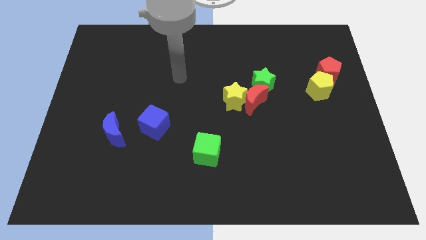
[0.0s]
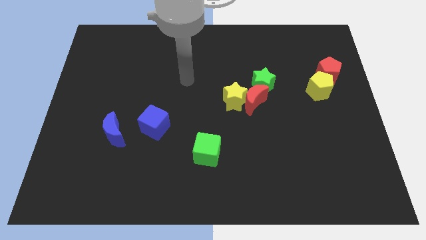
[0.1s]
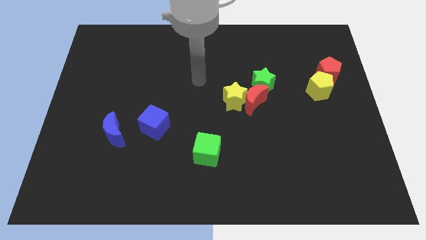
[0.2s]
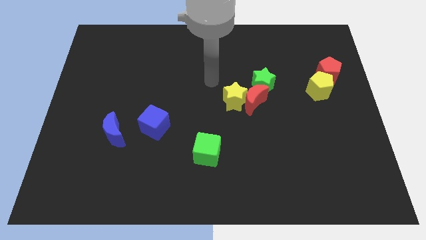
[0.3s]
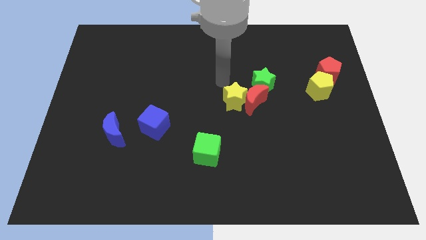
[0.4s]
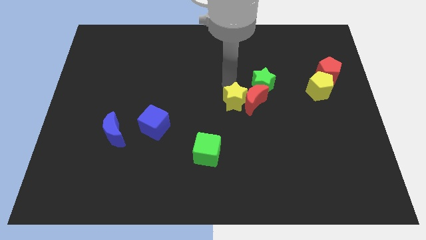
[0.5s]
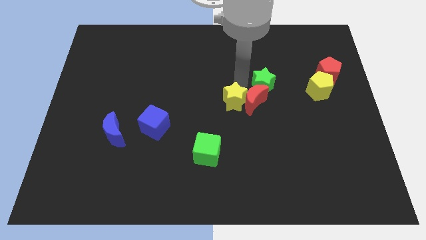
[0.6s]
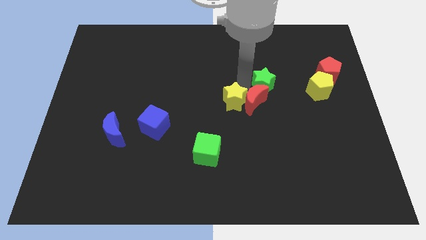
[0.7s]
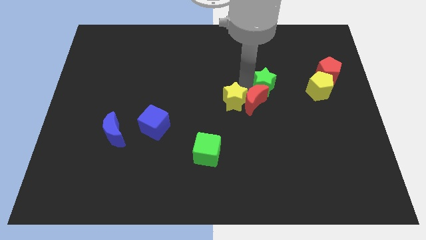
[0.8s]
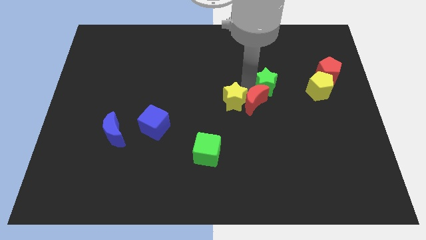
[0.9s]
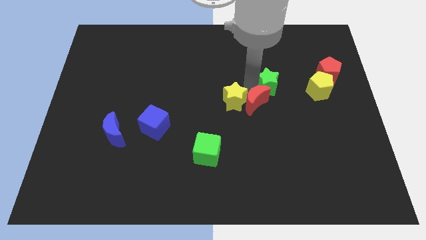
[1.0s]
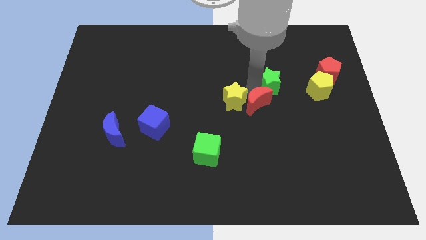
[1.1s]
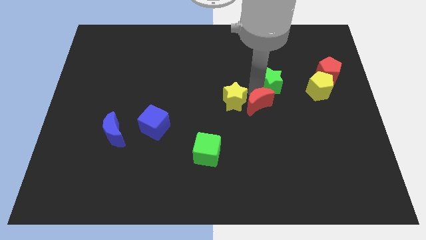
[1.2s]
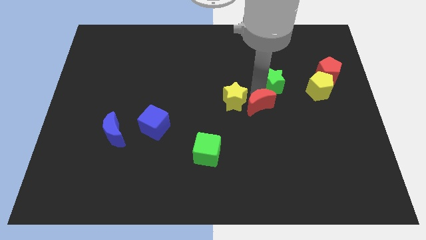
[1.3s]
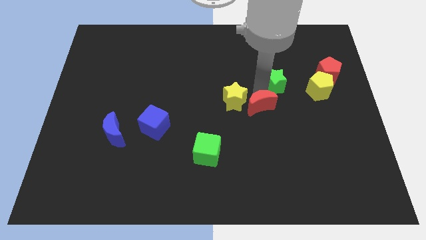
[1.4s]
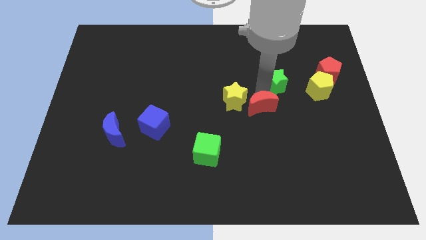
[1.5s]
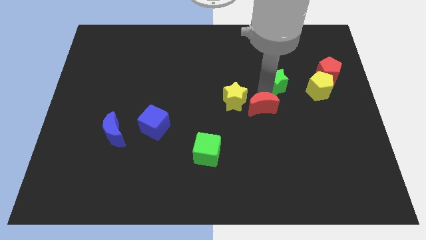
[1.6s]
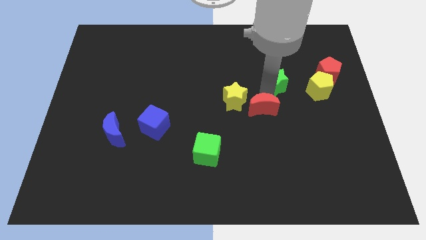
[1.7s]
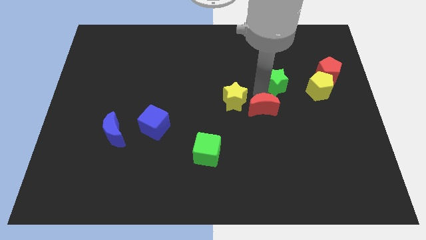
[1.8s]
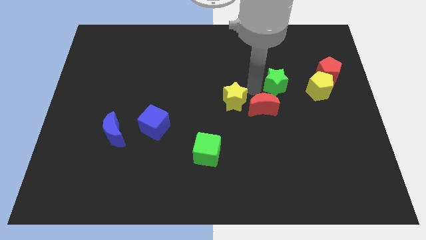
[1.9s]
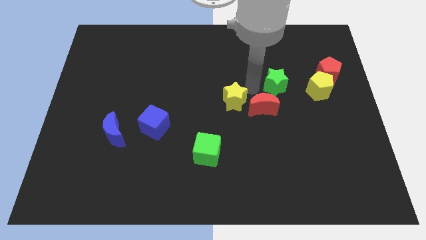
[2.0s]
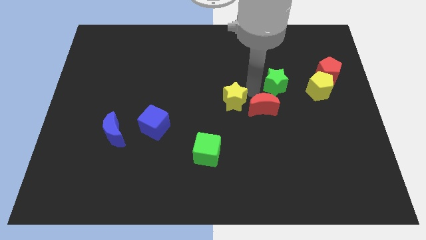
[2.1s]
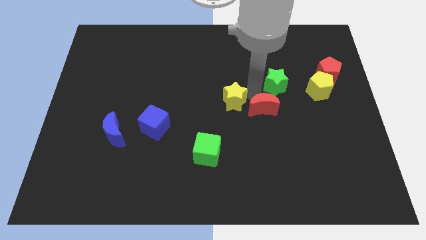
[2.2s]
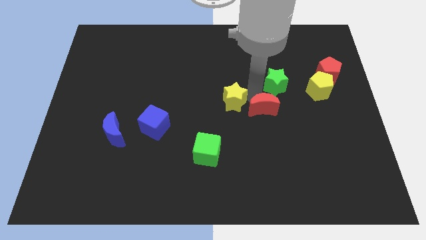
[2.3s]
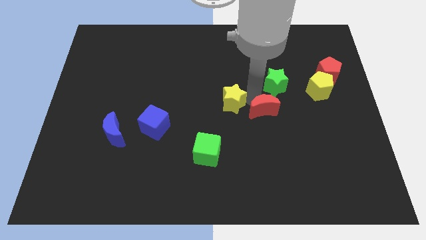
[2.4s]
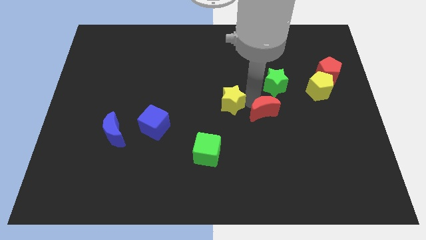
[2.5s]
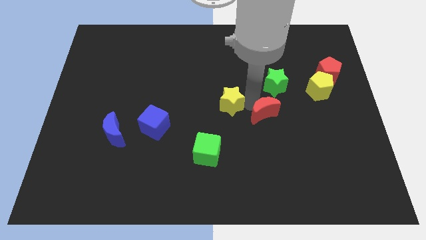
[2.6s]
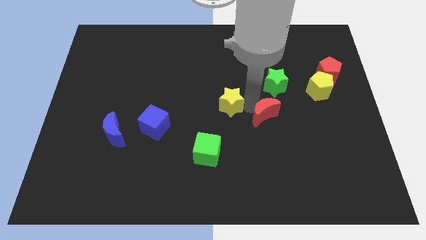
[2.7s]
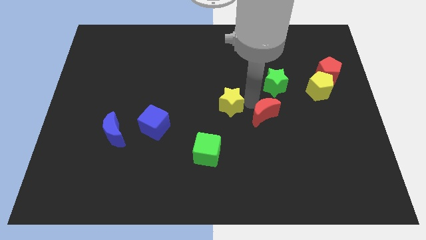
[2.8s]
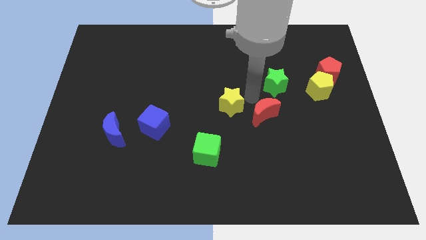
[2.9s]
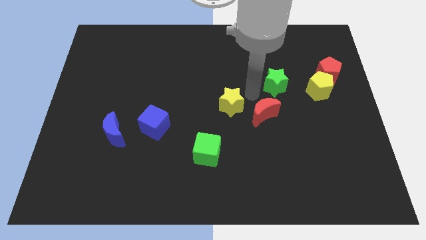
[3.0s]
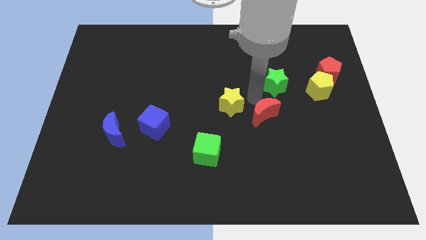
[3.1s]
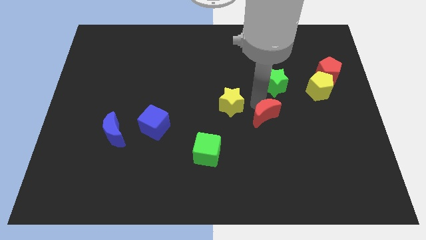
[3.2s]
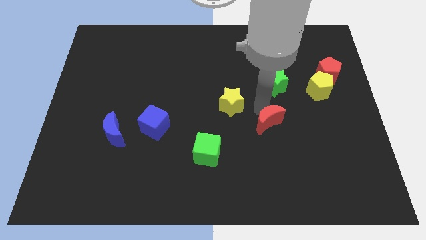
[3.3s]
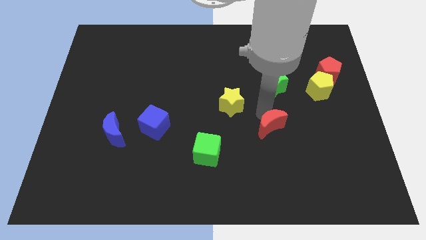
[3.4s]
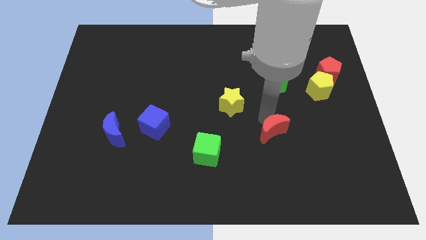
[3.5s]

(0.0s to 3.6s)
move the red moon away from the yellow star and green star

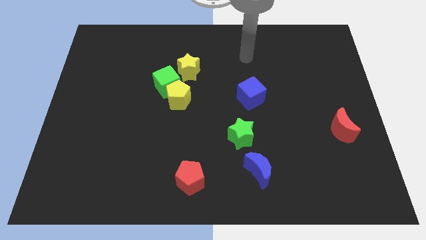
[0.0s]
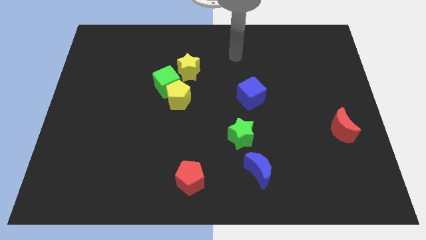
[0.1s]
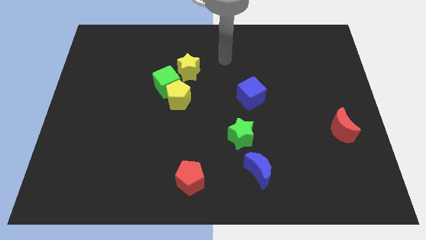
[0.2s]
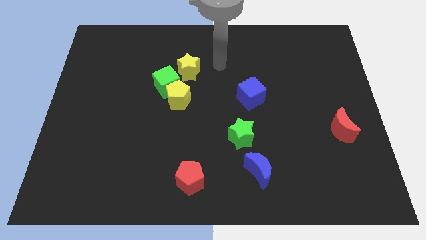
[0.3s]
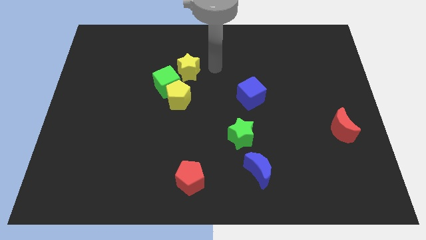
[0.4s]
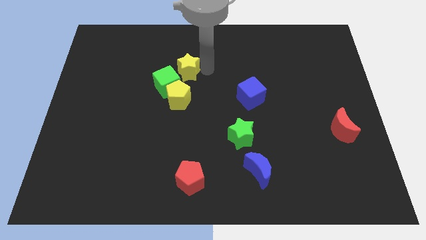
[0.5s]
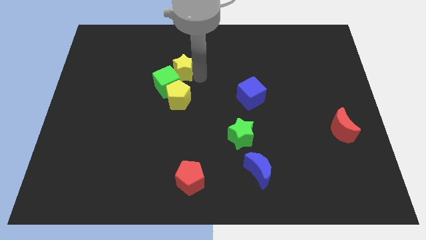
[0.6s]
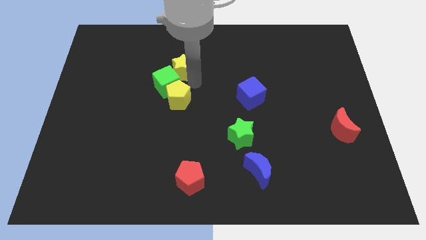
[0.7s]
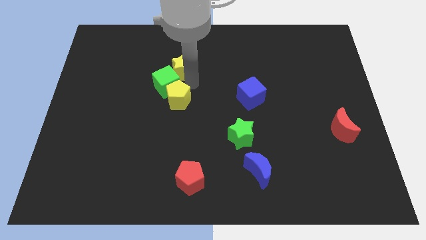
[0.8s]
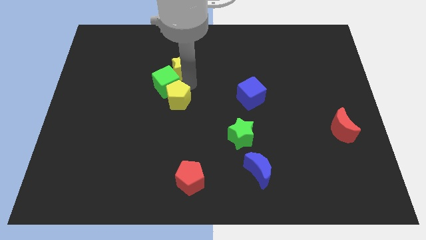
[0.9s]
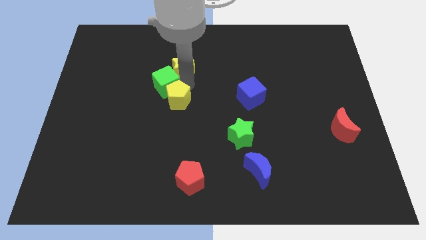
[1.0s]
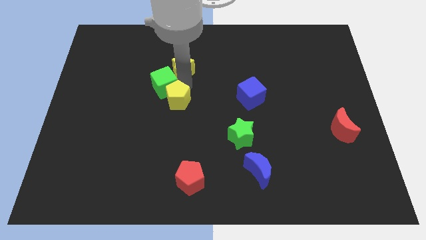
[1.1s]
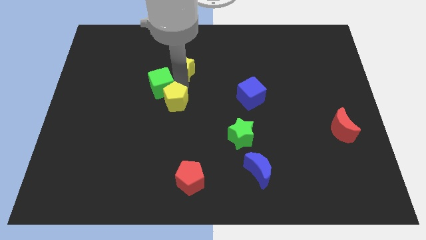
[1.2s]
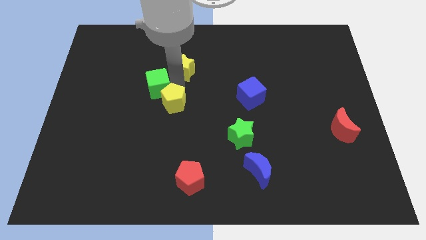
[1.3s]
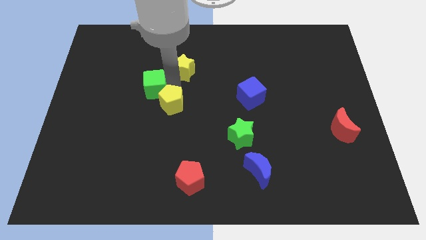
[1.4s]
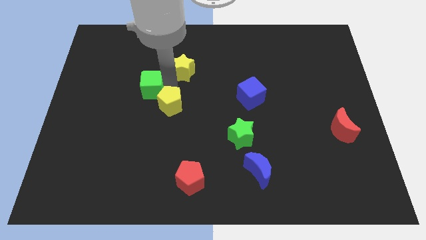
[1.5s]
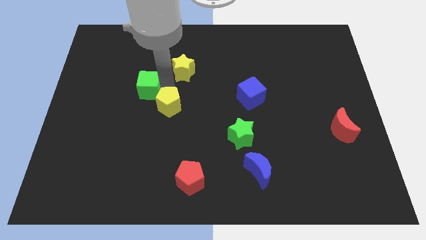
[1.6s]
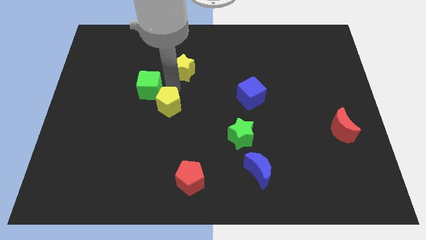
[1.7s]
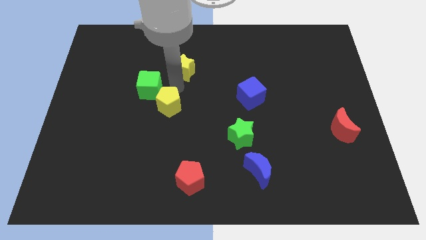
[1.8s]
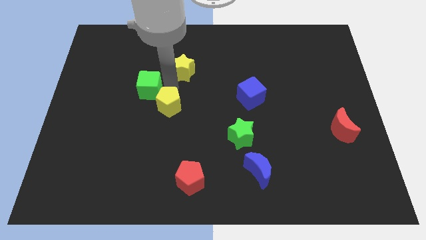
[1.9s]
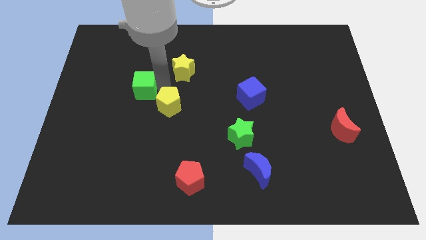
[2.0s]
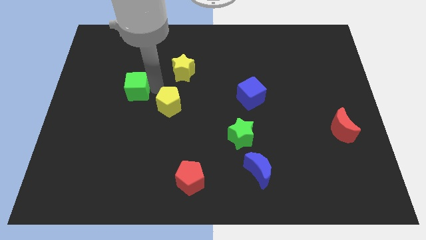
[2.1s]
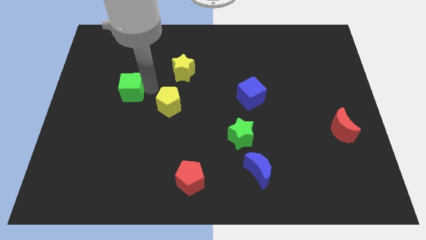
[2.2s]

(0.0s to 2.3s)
move the green cube away from the yellow pentagon and yellow star

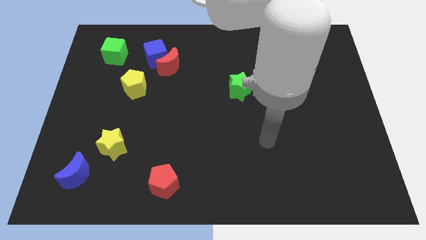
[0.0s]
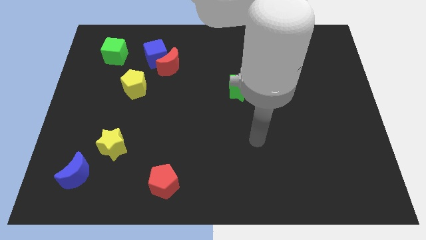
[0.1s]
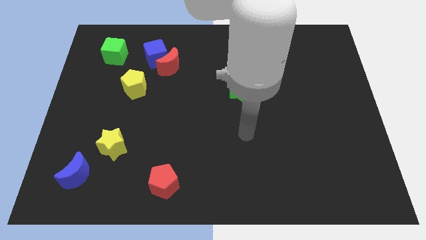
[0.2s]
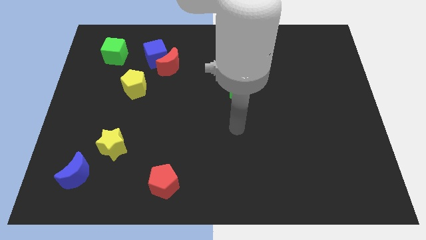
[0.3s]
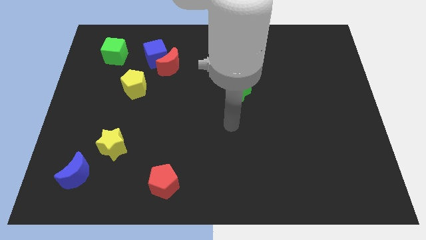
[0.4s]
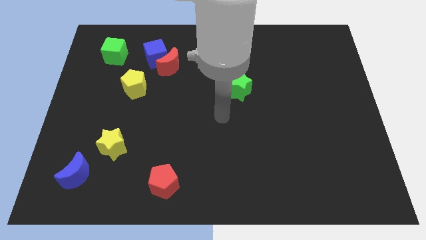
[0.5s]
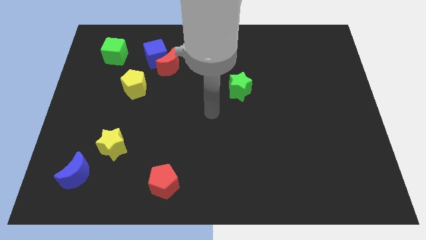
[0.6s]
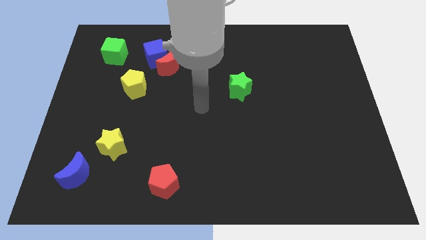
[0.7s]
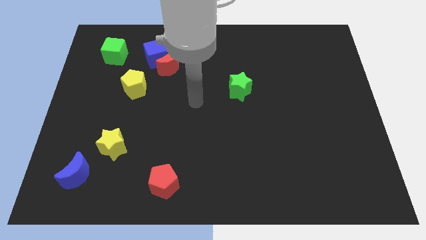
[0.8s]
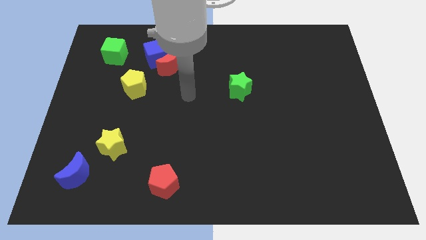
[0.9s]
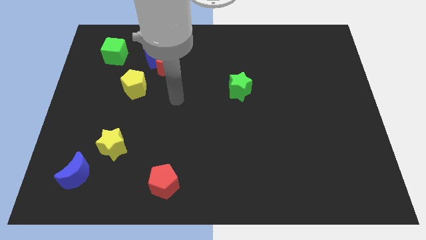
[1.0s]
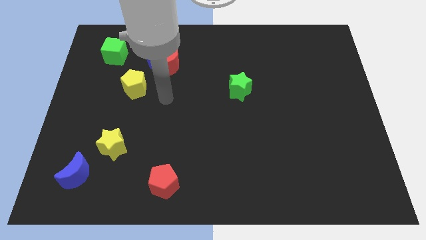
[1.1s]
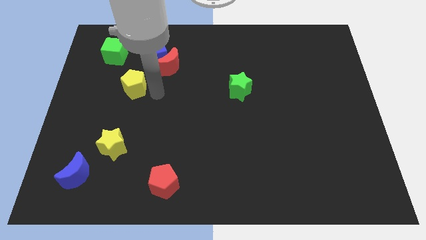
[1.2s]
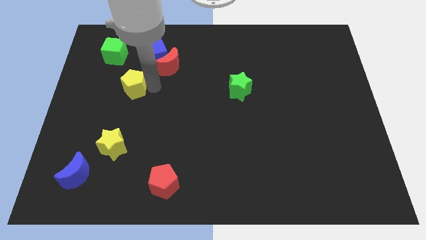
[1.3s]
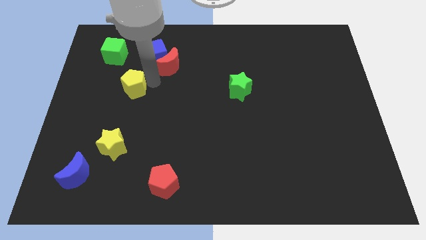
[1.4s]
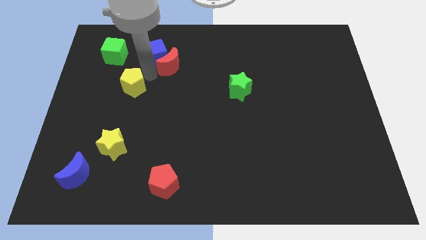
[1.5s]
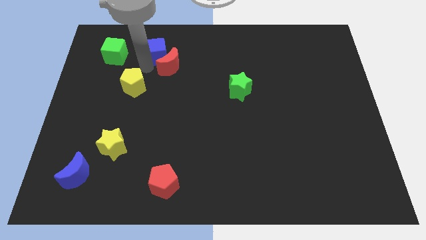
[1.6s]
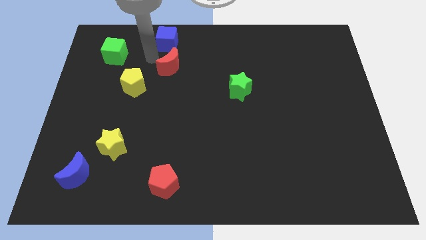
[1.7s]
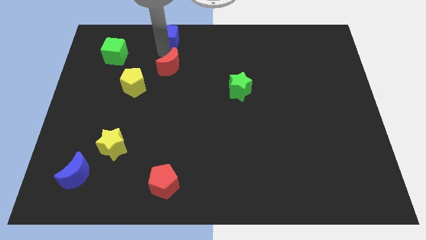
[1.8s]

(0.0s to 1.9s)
pull the red moon apart from the blue cube

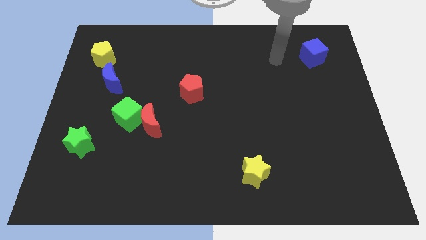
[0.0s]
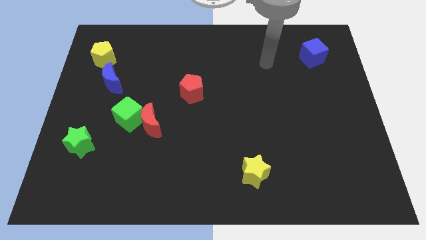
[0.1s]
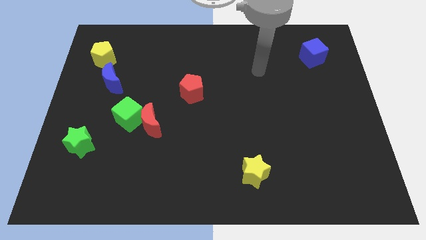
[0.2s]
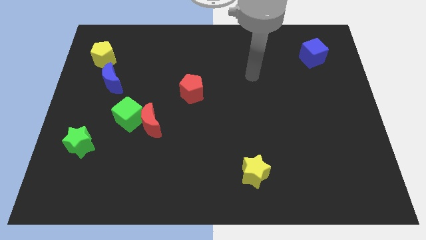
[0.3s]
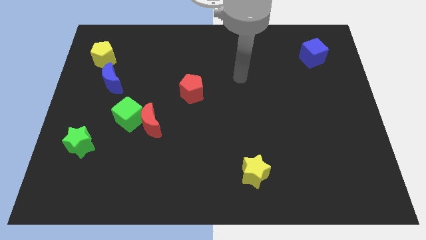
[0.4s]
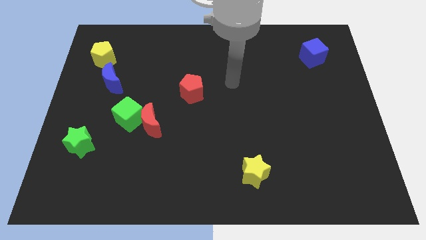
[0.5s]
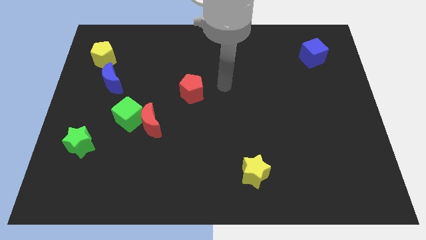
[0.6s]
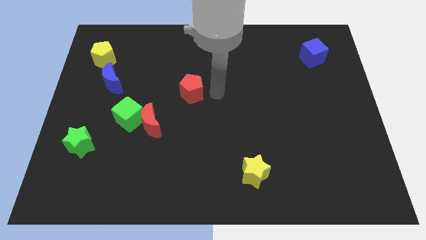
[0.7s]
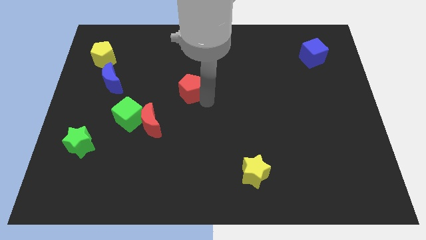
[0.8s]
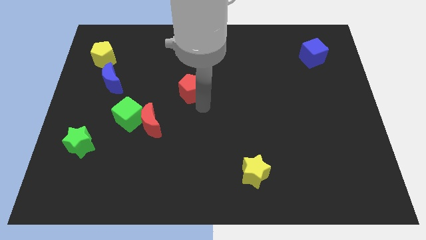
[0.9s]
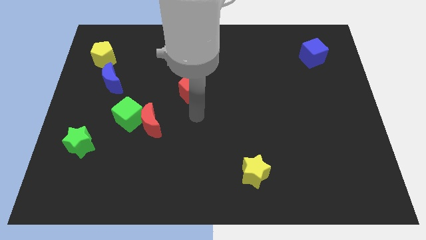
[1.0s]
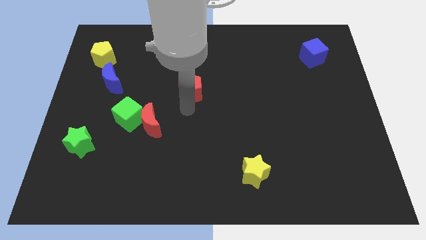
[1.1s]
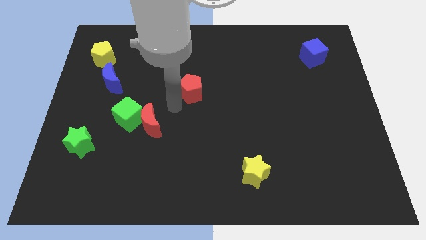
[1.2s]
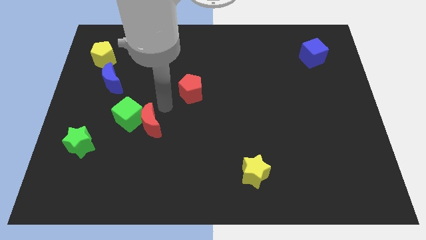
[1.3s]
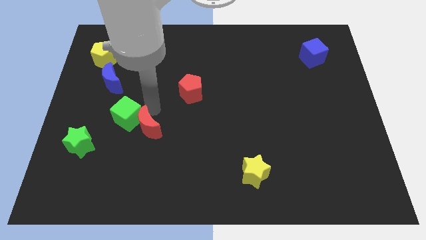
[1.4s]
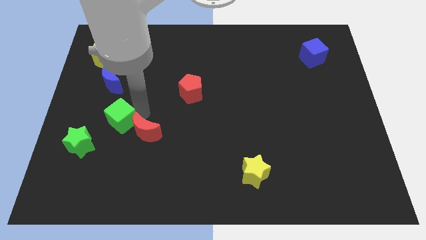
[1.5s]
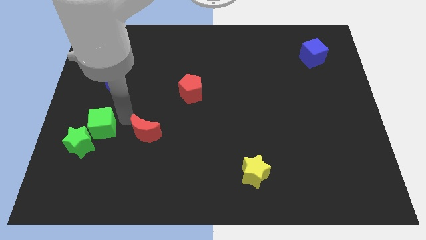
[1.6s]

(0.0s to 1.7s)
move the red moon away from the green cube
